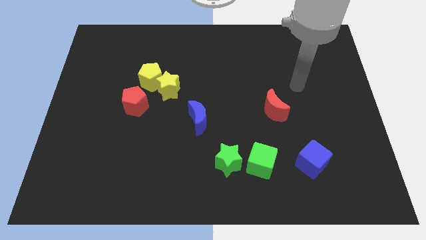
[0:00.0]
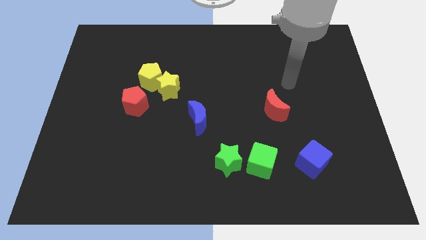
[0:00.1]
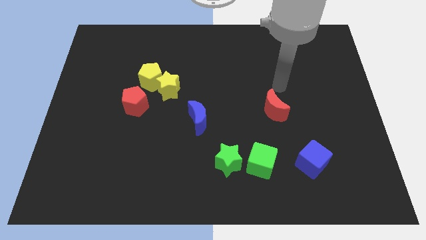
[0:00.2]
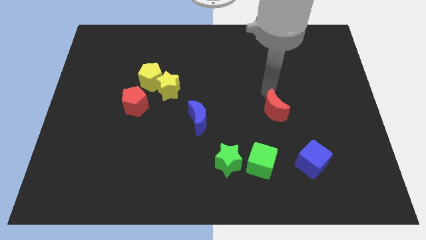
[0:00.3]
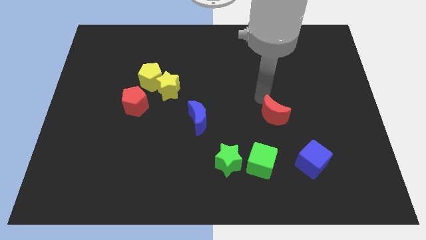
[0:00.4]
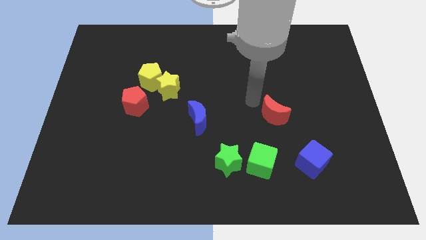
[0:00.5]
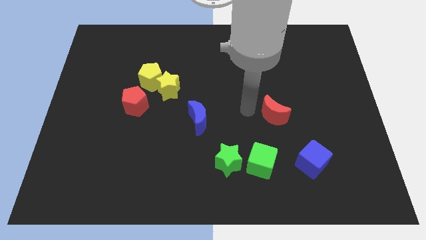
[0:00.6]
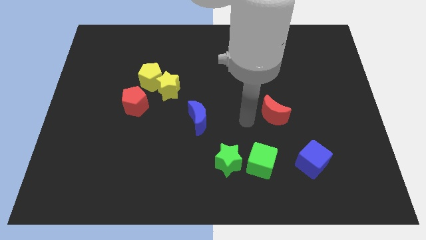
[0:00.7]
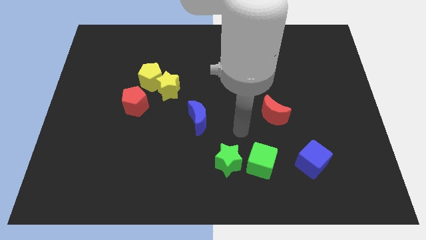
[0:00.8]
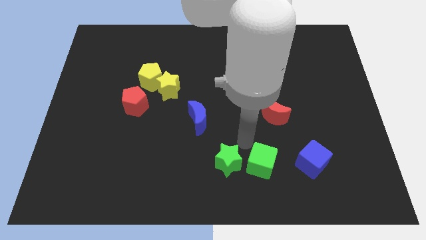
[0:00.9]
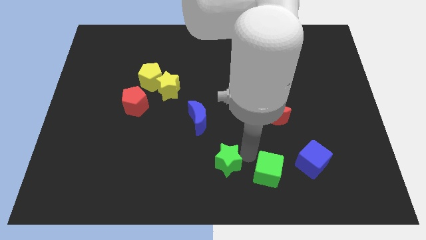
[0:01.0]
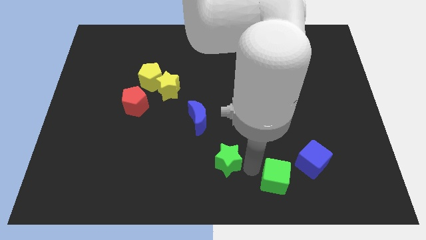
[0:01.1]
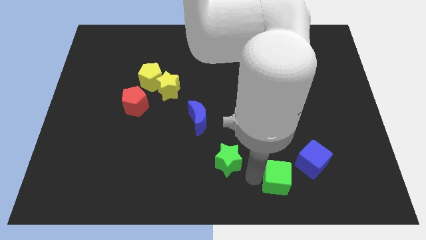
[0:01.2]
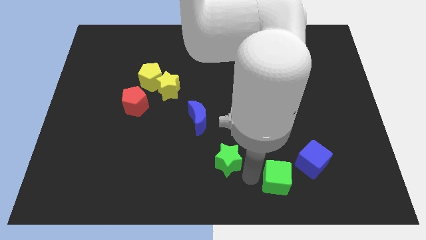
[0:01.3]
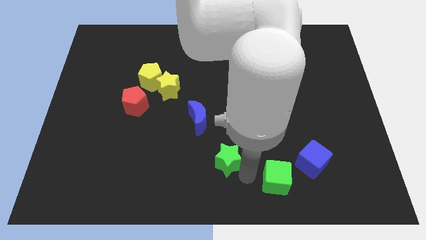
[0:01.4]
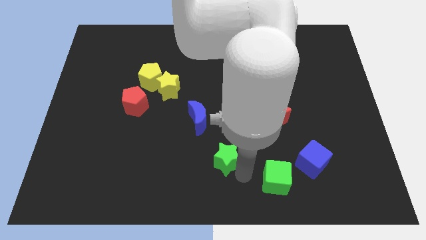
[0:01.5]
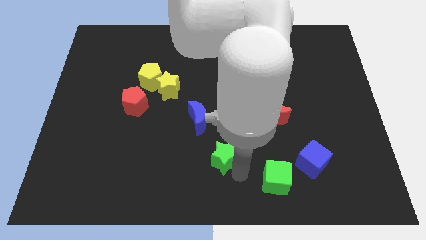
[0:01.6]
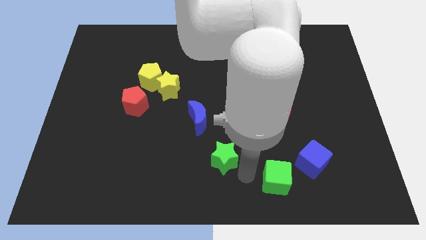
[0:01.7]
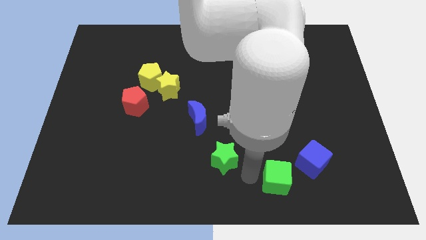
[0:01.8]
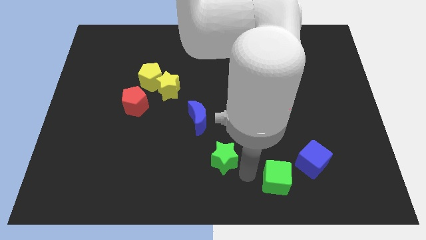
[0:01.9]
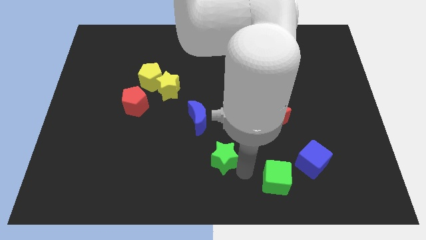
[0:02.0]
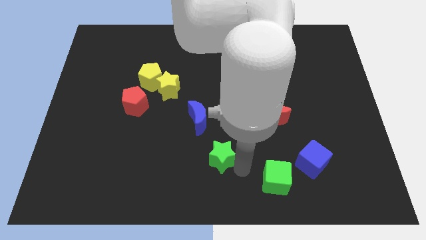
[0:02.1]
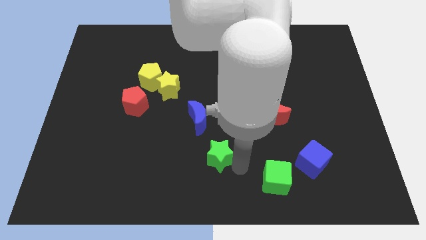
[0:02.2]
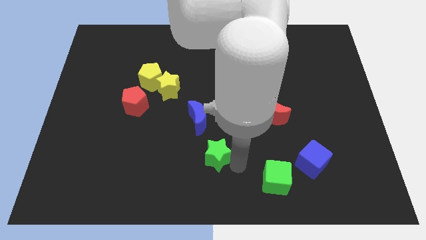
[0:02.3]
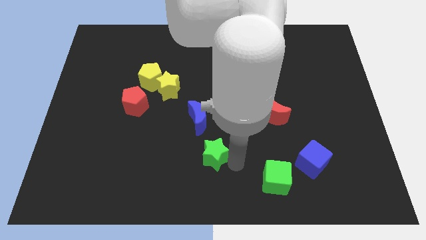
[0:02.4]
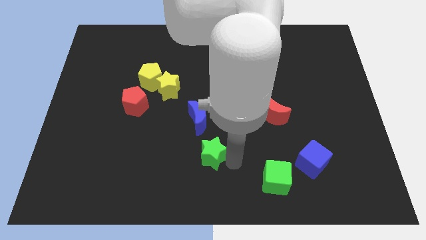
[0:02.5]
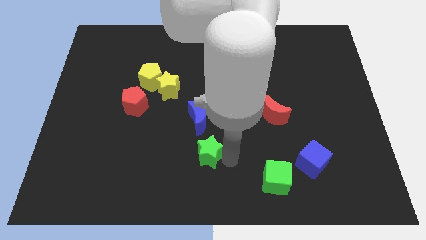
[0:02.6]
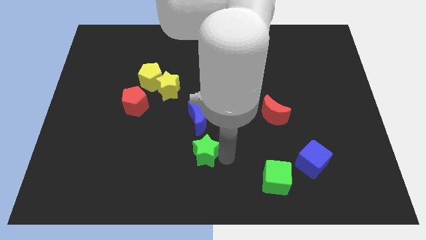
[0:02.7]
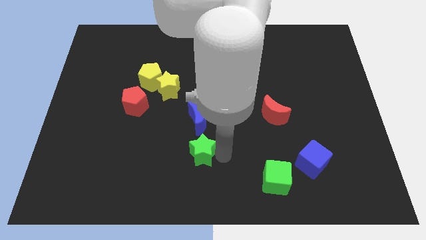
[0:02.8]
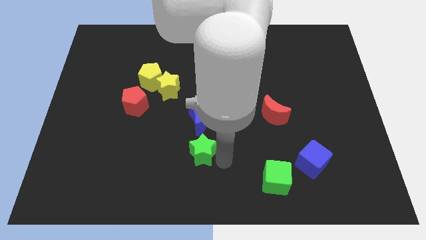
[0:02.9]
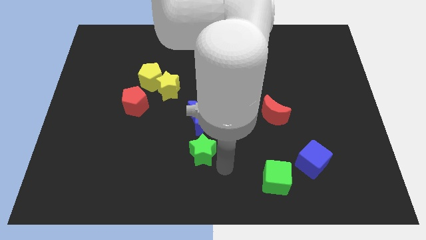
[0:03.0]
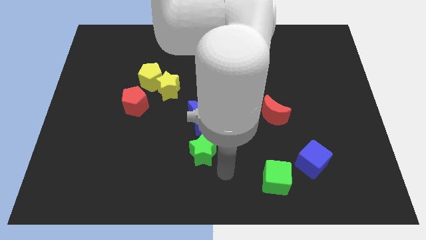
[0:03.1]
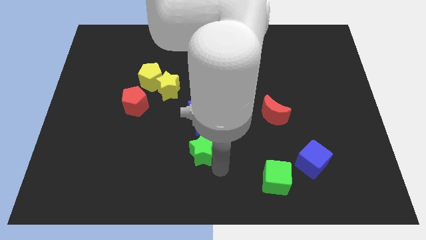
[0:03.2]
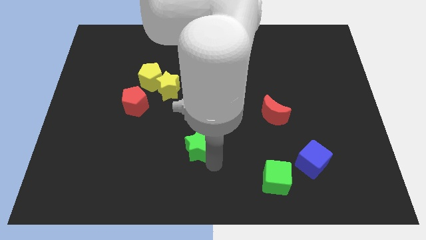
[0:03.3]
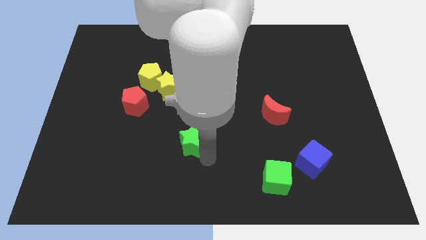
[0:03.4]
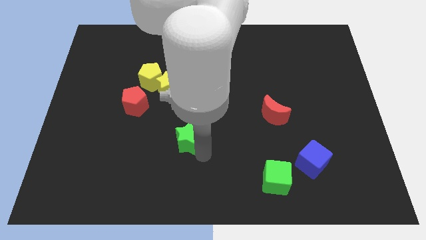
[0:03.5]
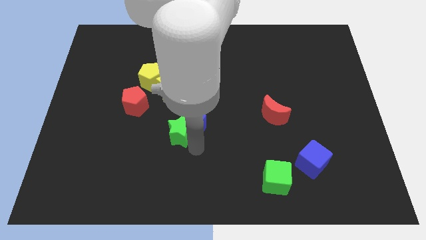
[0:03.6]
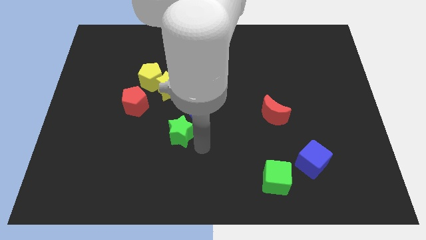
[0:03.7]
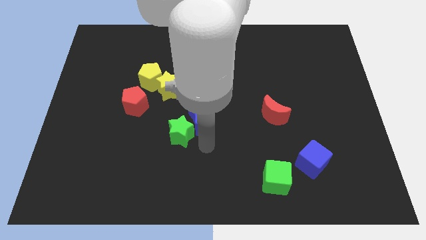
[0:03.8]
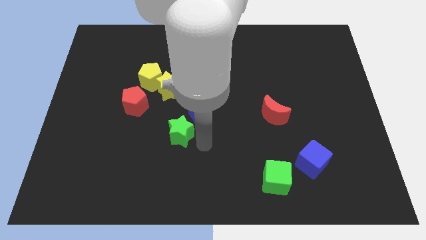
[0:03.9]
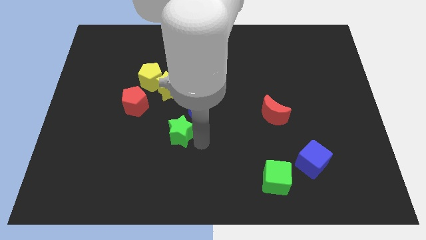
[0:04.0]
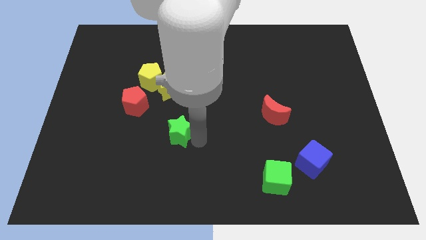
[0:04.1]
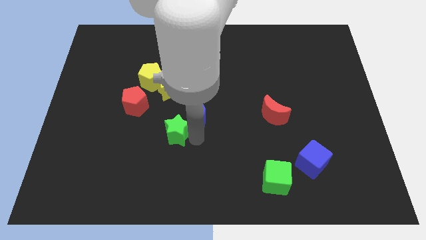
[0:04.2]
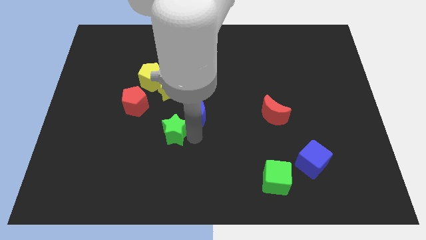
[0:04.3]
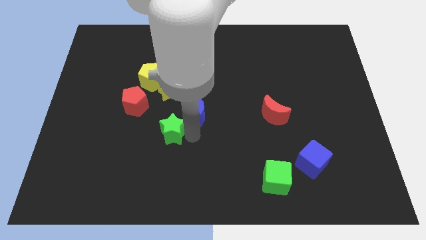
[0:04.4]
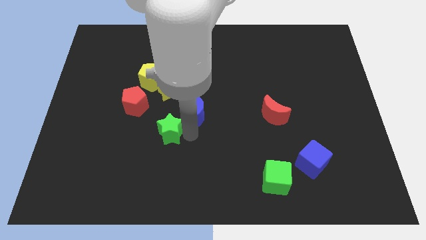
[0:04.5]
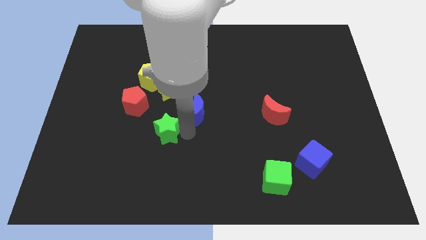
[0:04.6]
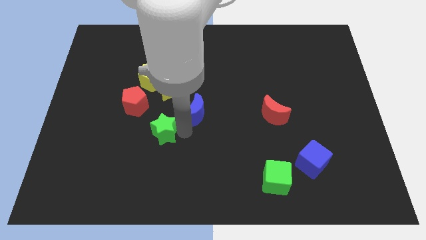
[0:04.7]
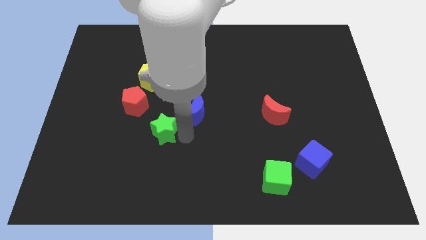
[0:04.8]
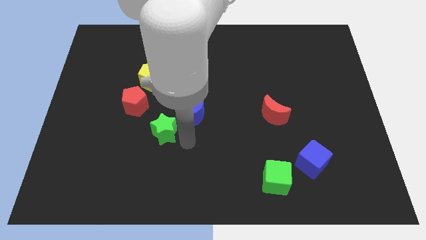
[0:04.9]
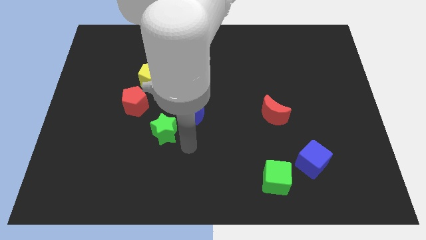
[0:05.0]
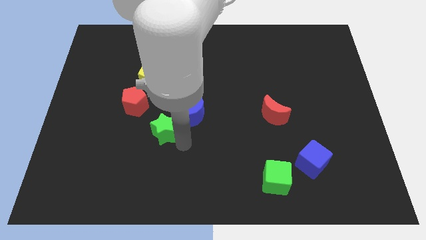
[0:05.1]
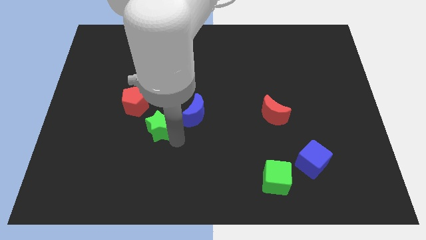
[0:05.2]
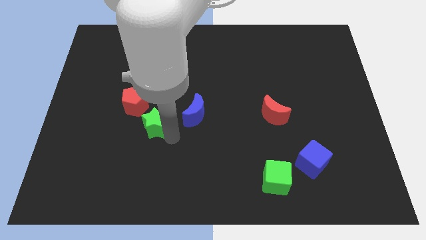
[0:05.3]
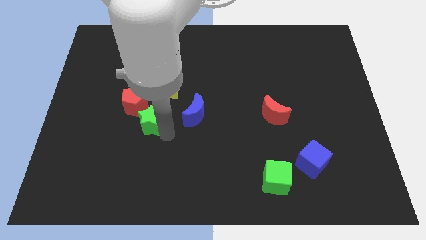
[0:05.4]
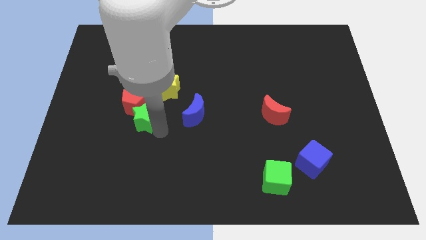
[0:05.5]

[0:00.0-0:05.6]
slide the green star towards the red pentagon

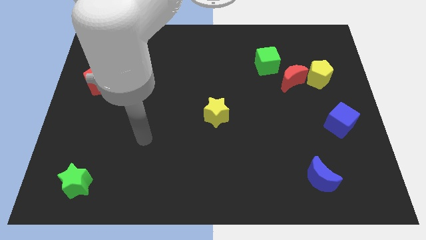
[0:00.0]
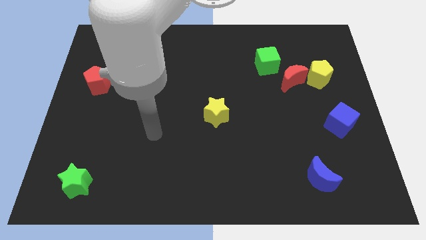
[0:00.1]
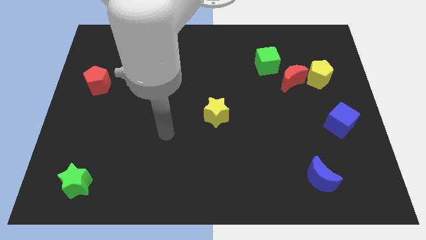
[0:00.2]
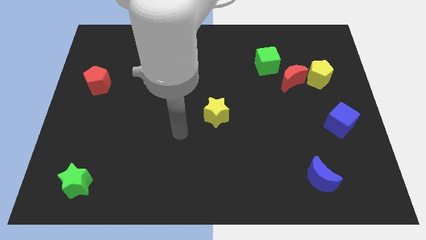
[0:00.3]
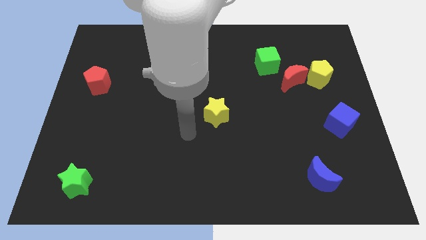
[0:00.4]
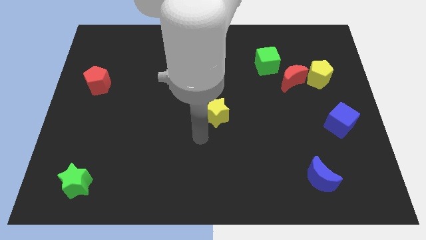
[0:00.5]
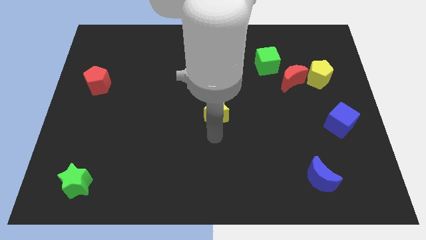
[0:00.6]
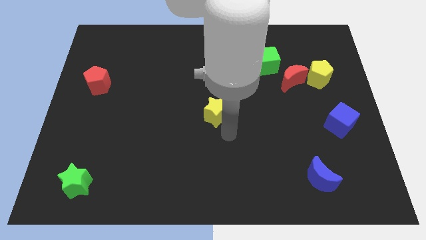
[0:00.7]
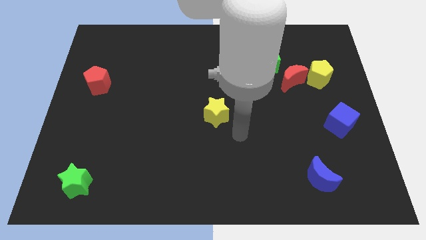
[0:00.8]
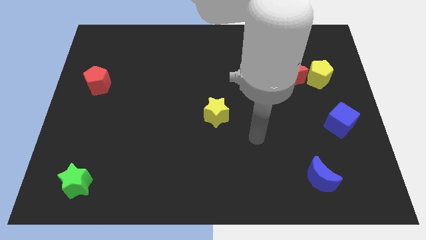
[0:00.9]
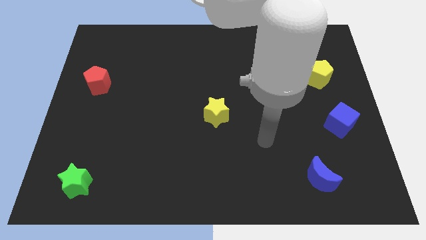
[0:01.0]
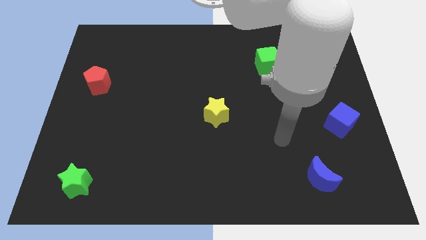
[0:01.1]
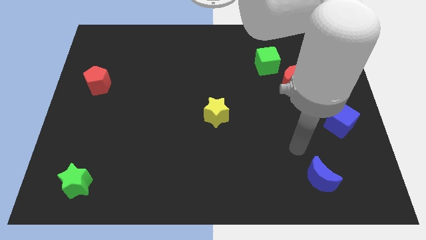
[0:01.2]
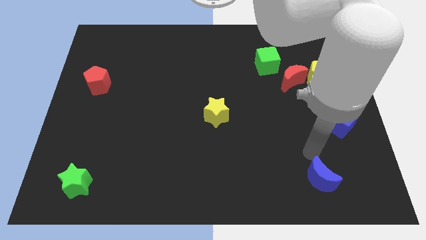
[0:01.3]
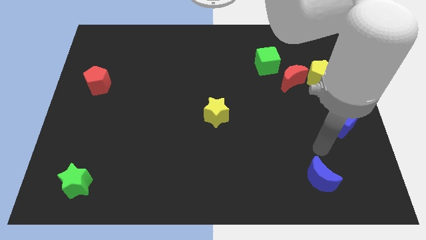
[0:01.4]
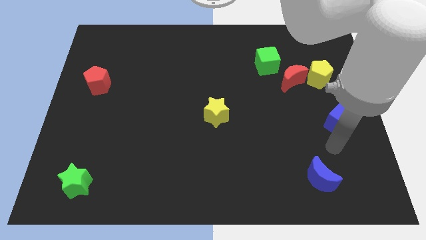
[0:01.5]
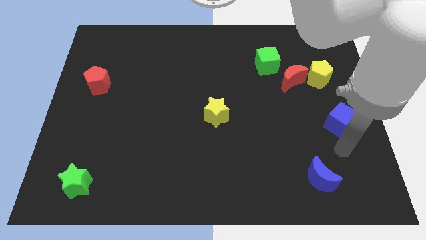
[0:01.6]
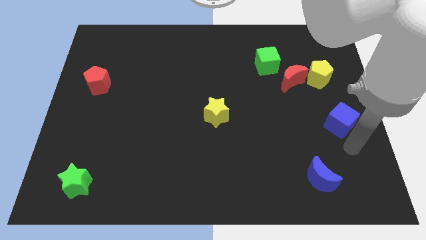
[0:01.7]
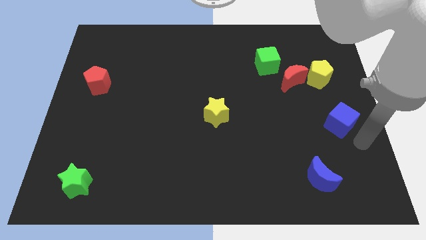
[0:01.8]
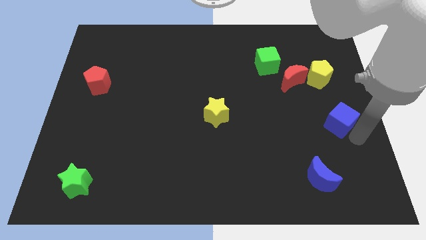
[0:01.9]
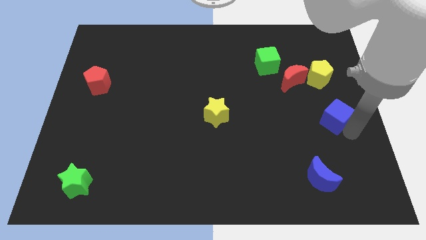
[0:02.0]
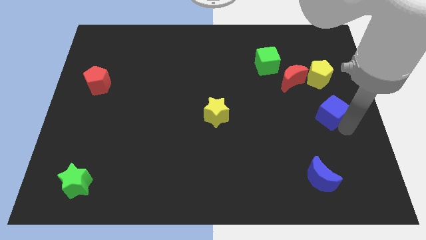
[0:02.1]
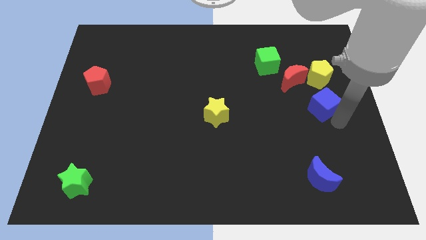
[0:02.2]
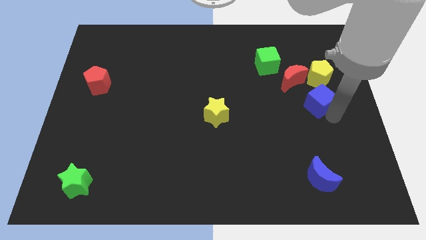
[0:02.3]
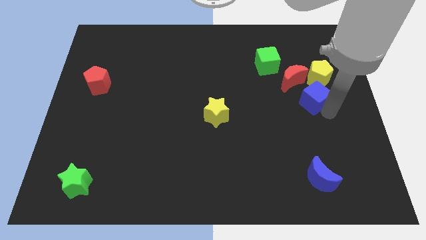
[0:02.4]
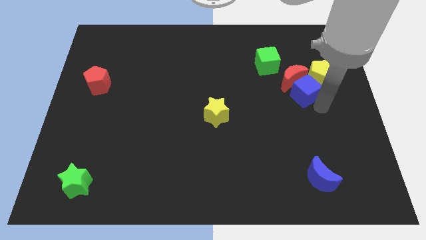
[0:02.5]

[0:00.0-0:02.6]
put the blue cube next to the red moon
